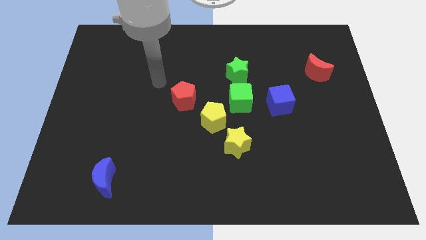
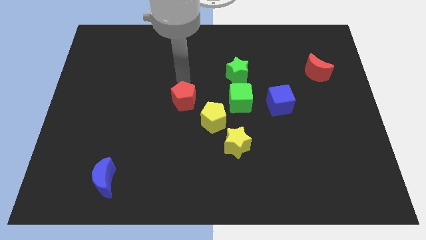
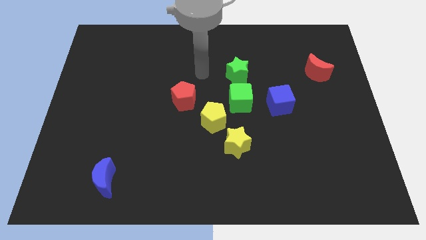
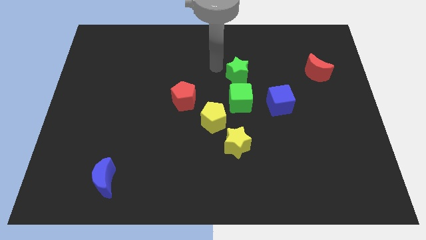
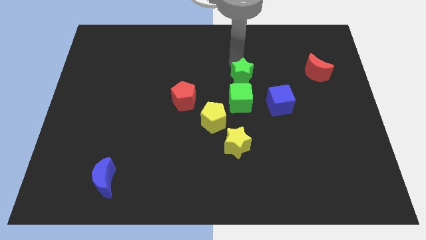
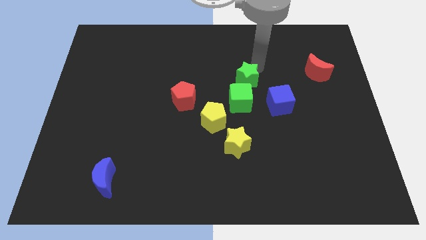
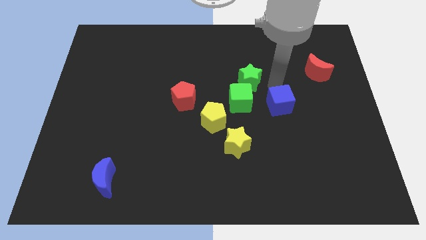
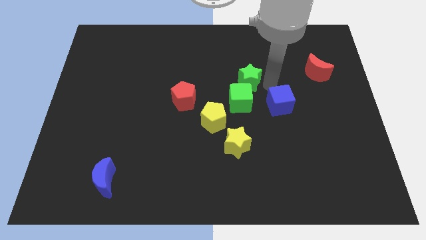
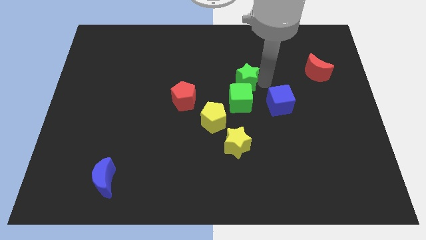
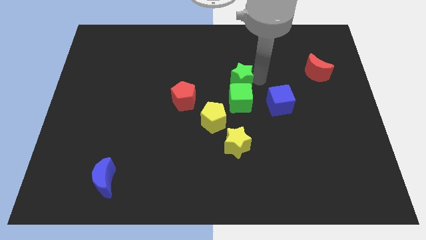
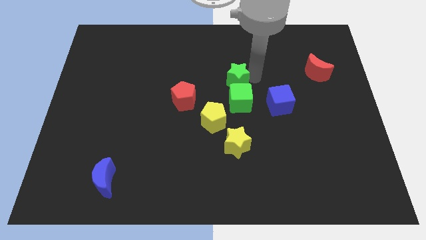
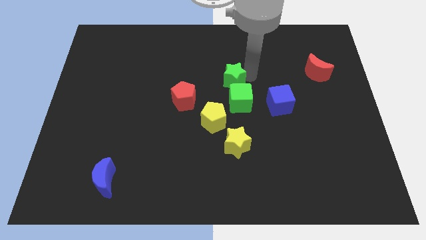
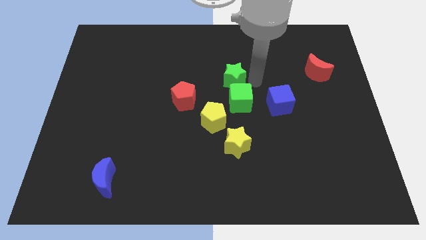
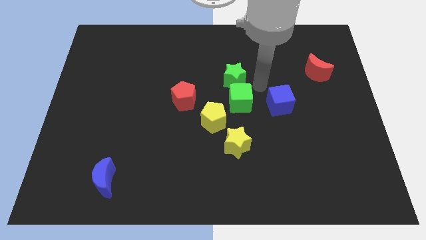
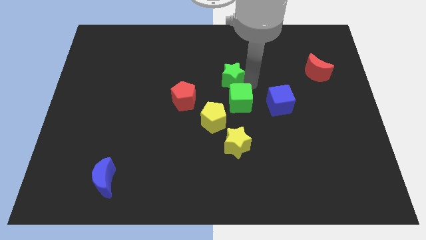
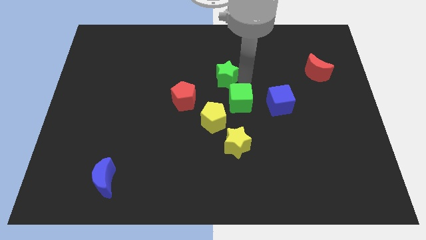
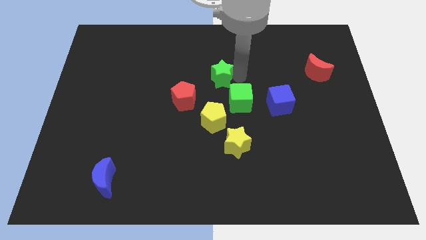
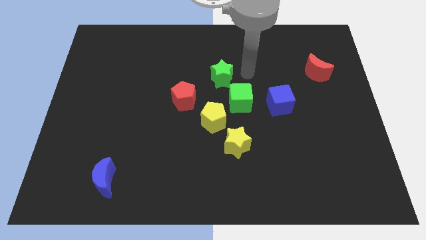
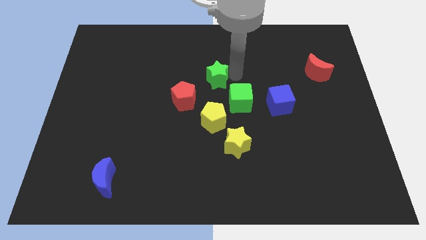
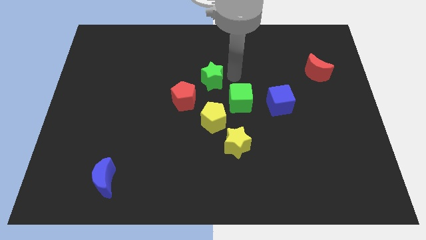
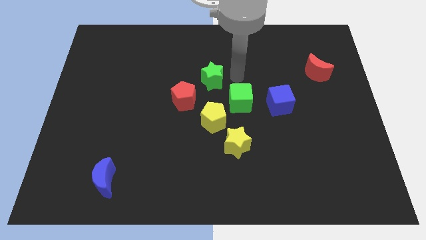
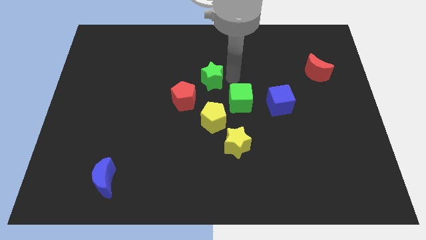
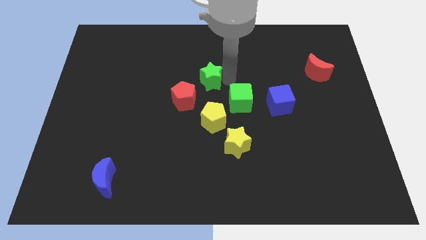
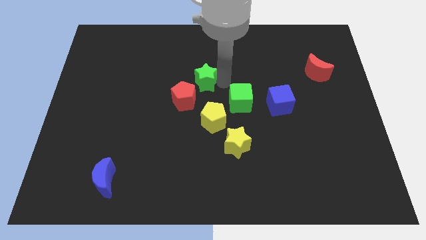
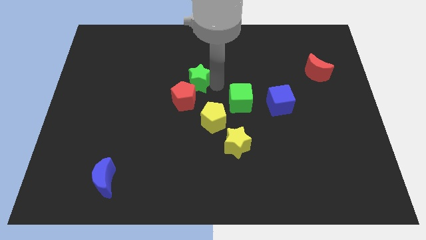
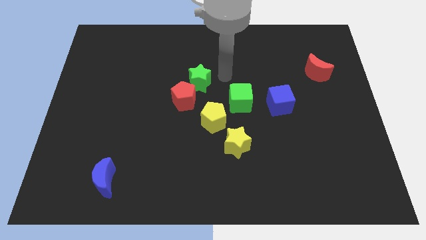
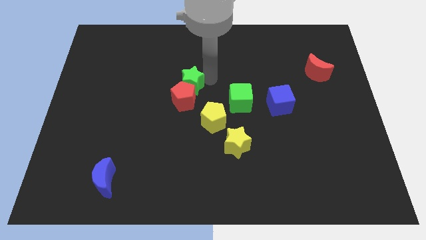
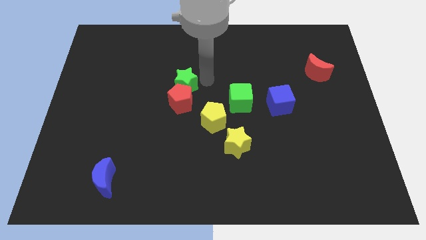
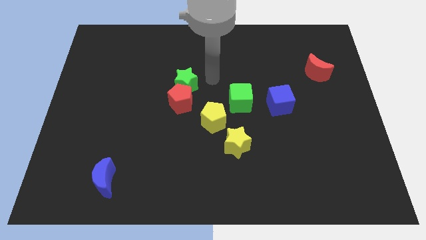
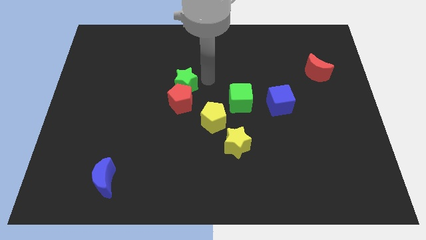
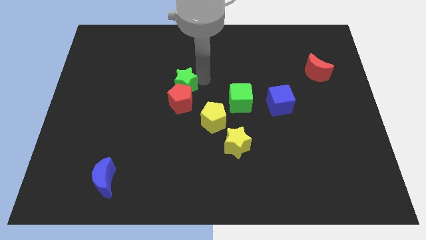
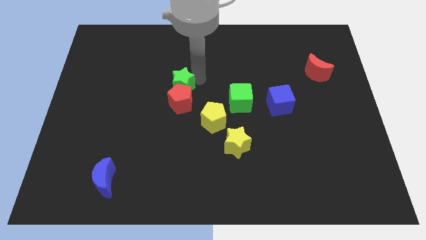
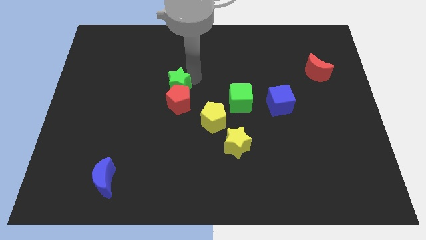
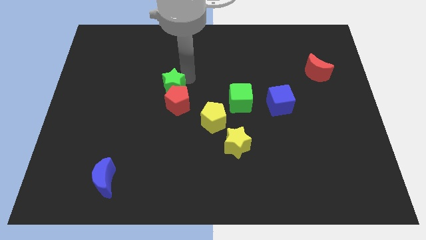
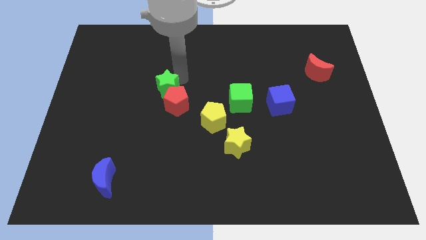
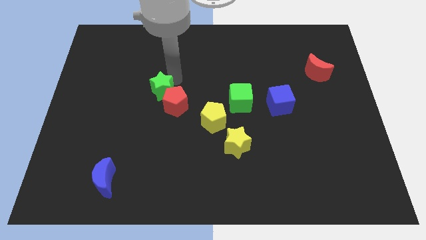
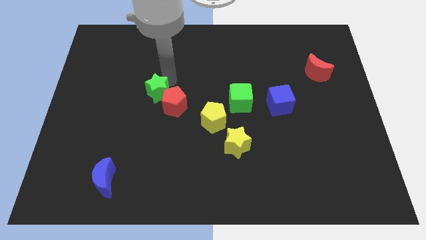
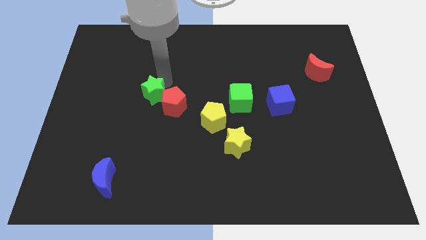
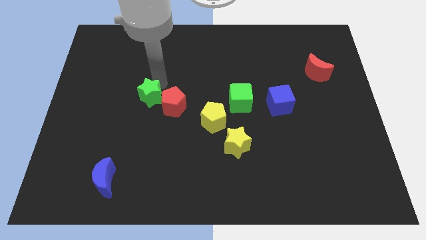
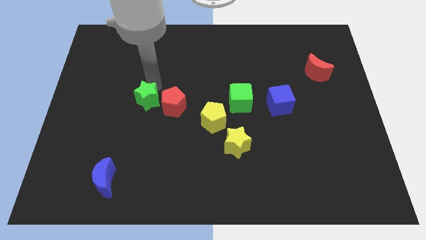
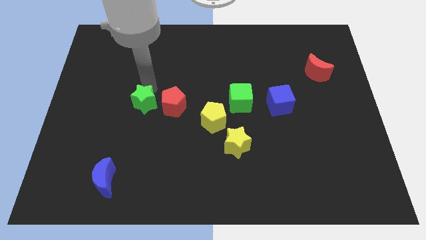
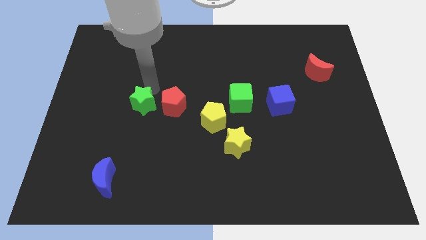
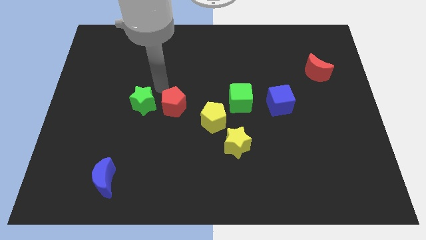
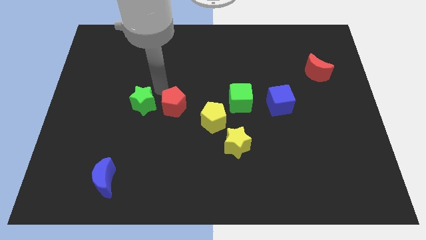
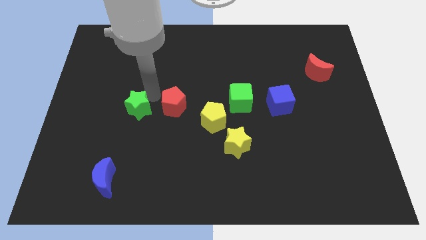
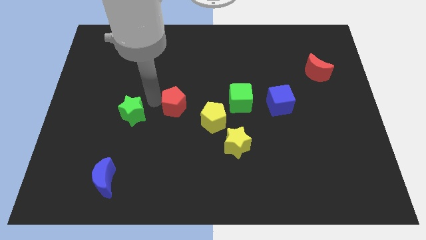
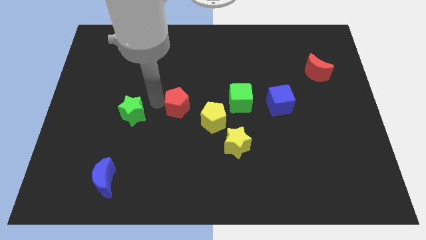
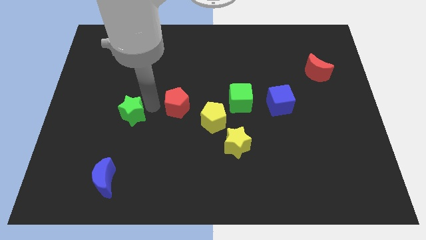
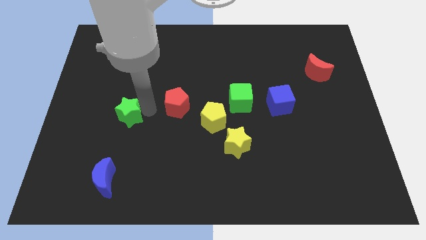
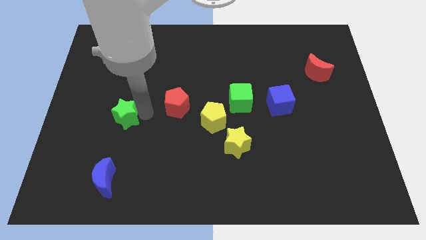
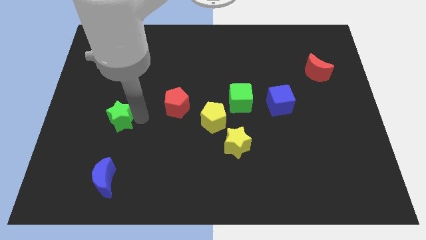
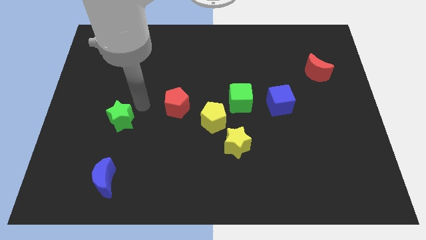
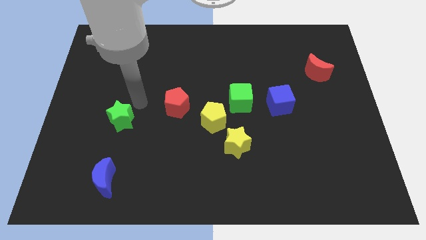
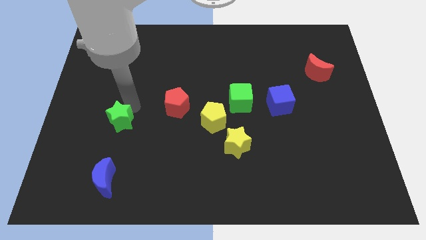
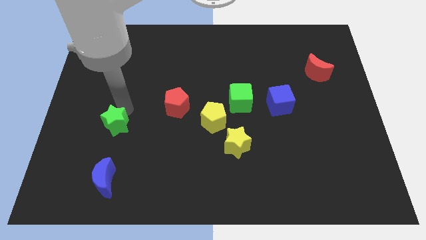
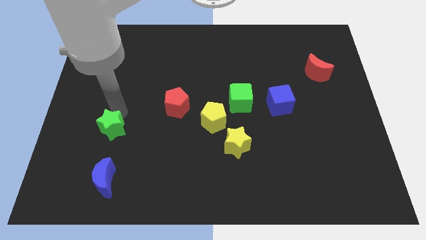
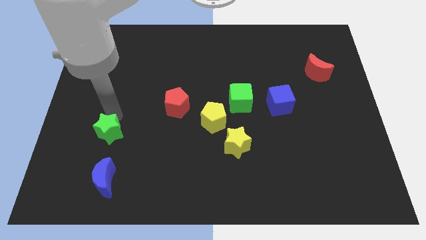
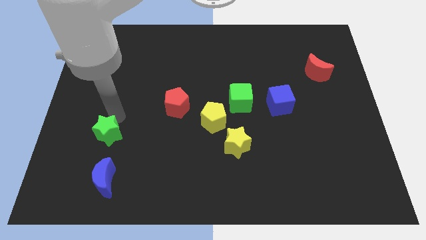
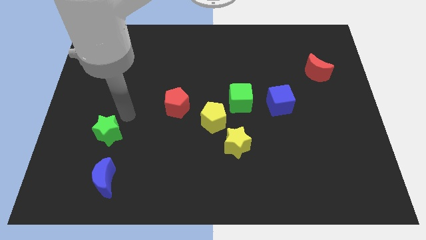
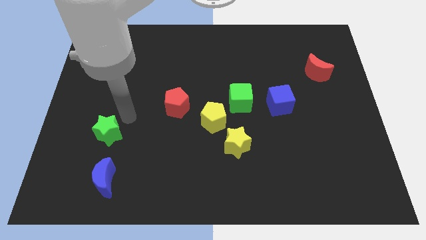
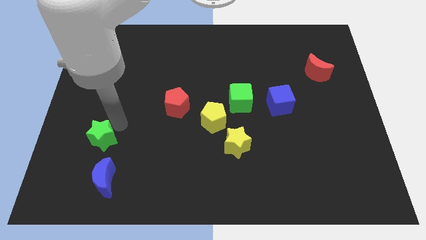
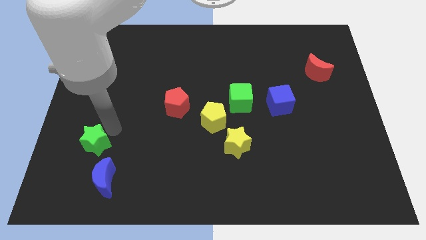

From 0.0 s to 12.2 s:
put the green star diagonally up and to the left of the blue moon
